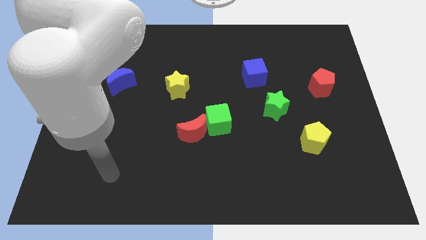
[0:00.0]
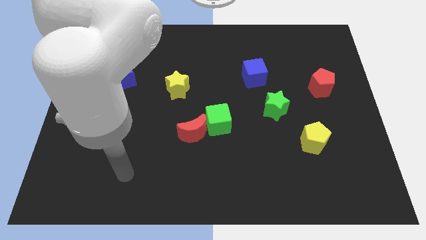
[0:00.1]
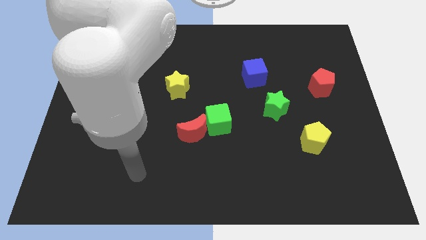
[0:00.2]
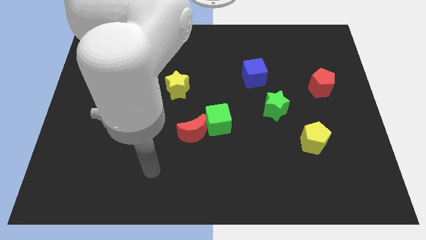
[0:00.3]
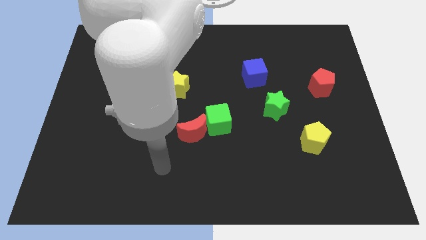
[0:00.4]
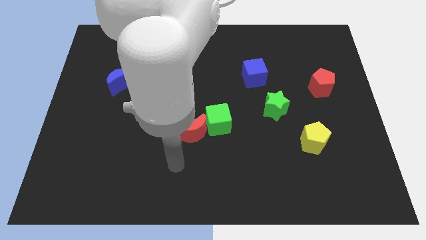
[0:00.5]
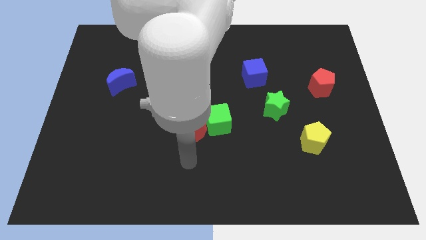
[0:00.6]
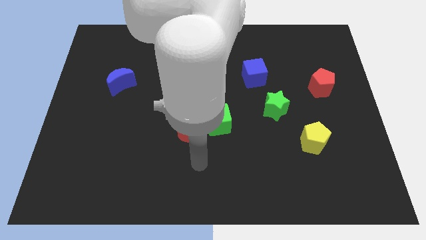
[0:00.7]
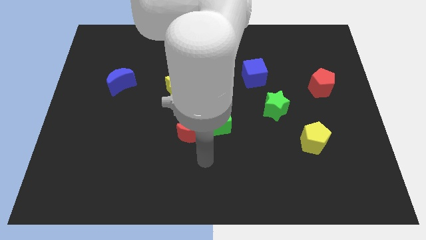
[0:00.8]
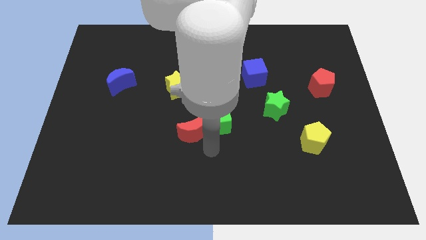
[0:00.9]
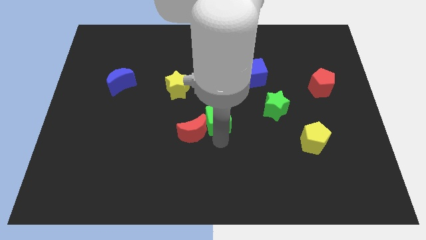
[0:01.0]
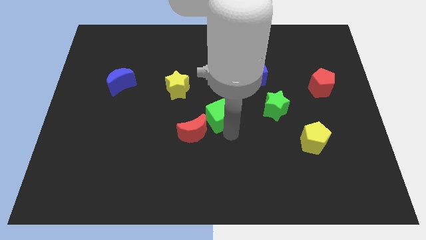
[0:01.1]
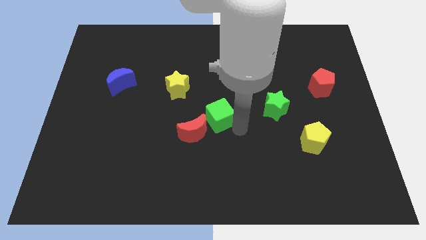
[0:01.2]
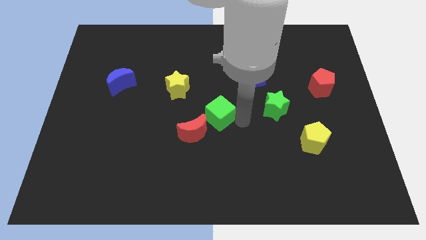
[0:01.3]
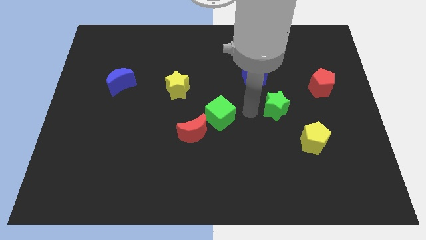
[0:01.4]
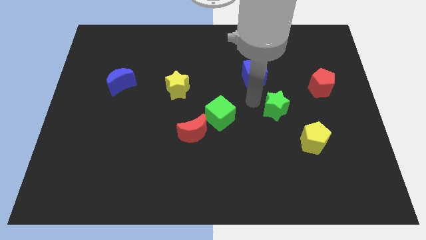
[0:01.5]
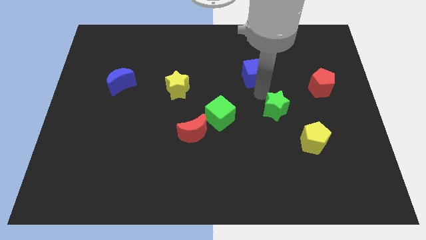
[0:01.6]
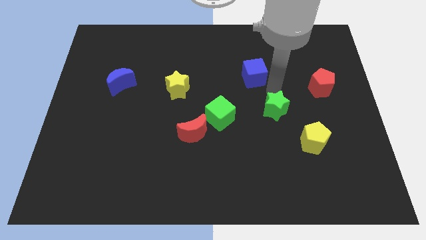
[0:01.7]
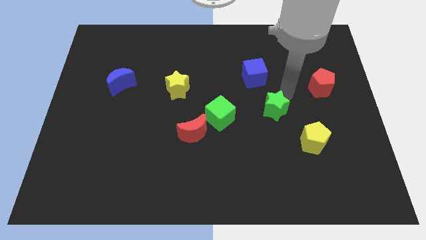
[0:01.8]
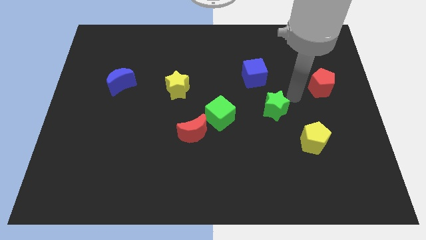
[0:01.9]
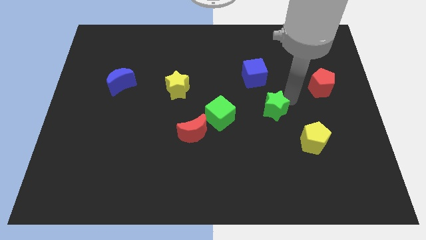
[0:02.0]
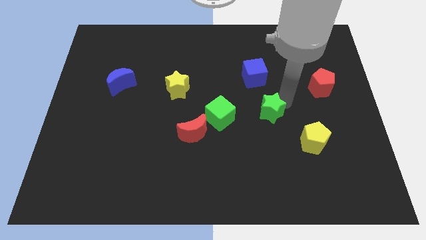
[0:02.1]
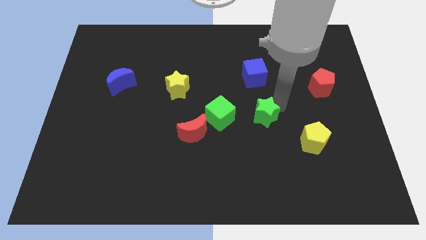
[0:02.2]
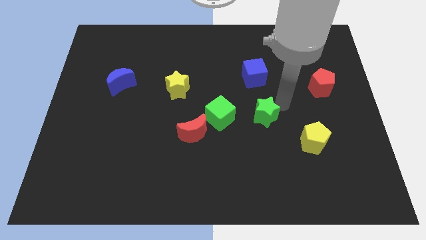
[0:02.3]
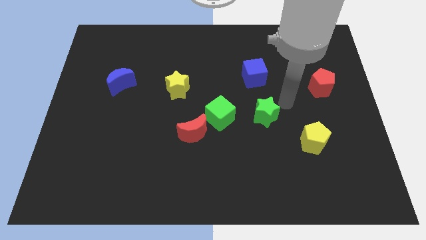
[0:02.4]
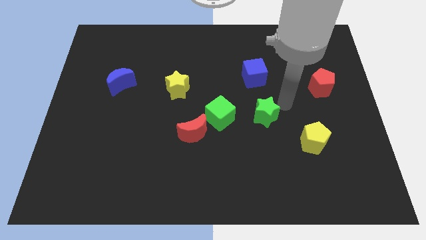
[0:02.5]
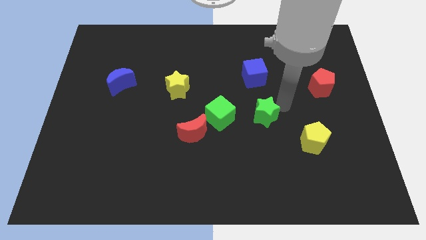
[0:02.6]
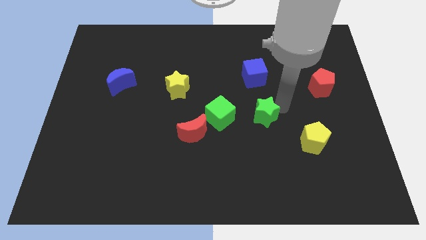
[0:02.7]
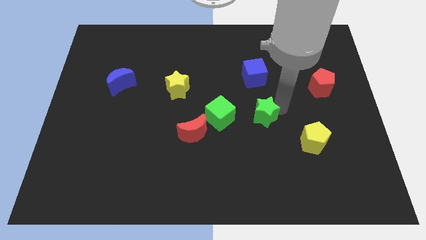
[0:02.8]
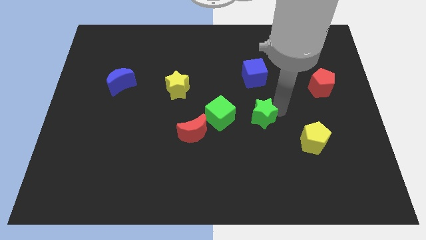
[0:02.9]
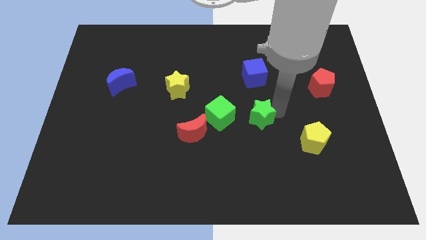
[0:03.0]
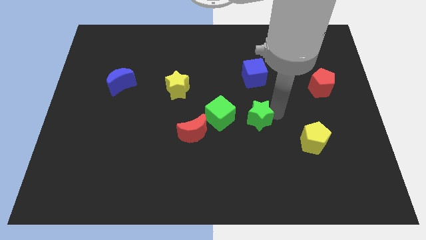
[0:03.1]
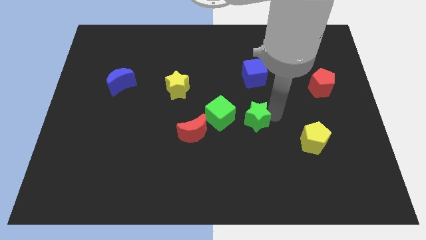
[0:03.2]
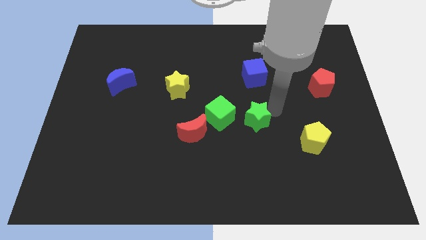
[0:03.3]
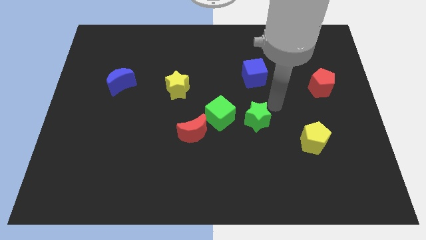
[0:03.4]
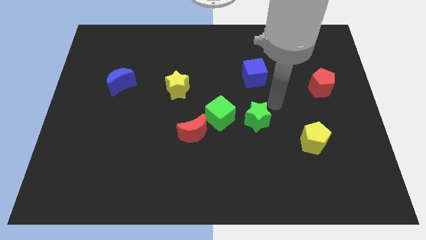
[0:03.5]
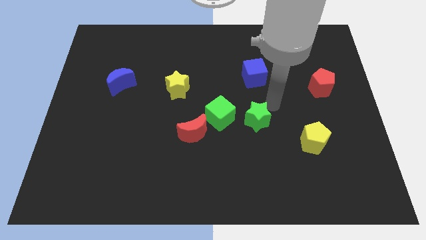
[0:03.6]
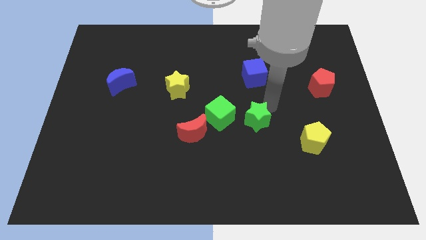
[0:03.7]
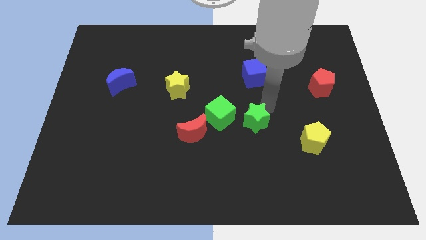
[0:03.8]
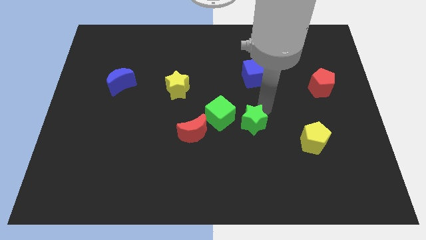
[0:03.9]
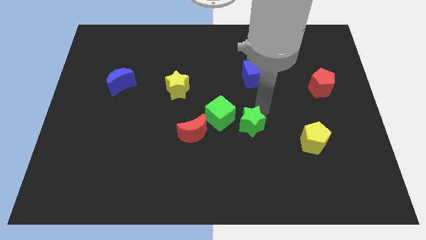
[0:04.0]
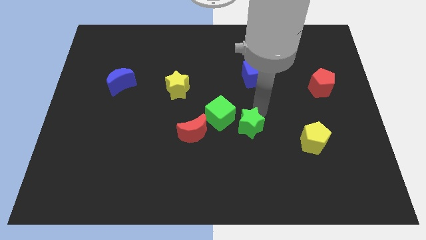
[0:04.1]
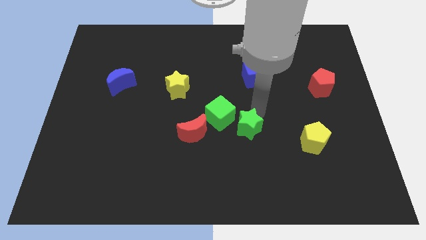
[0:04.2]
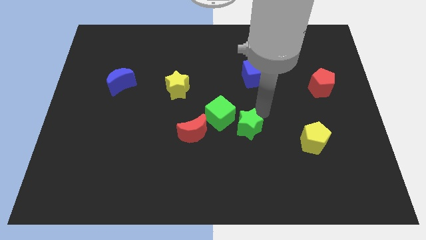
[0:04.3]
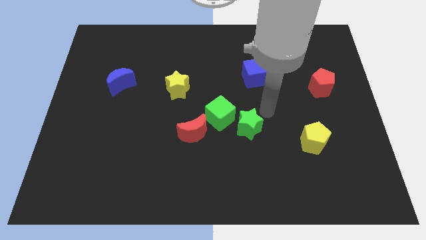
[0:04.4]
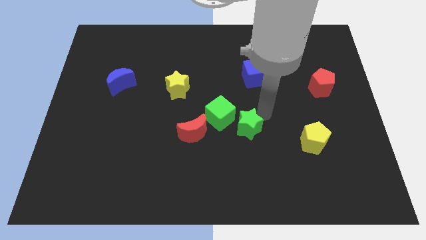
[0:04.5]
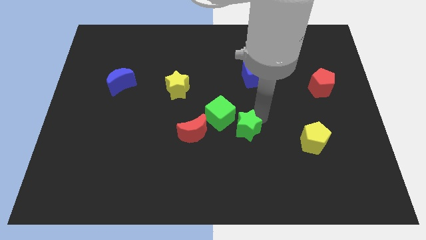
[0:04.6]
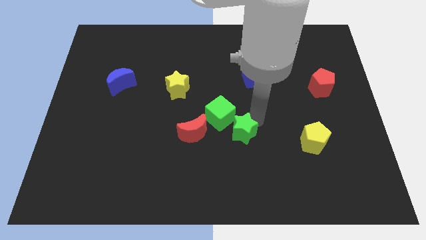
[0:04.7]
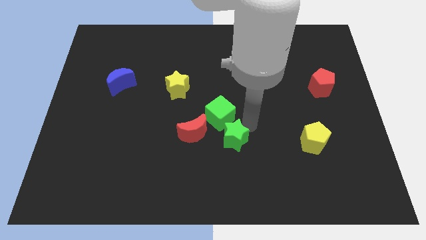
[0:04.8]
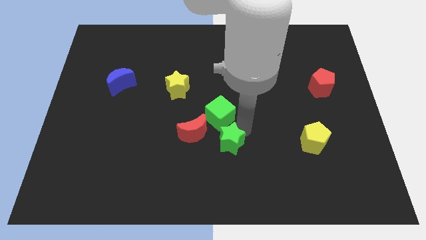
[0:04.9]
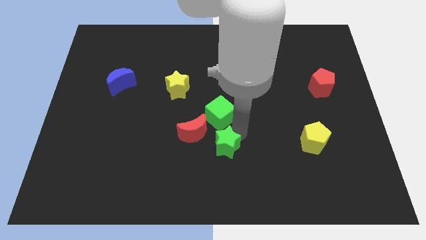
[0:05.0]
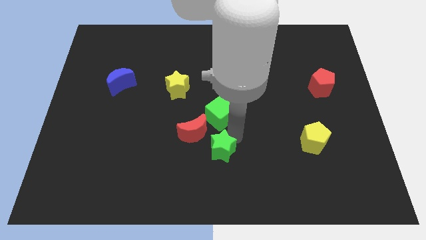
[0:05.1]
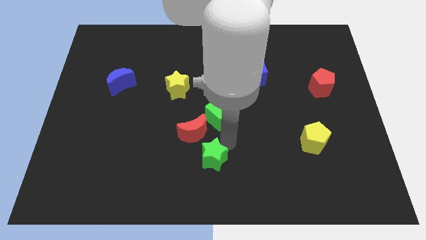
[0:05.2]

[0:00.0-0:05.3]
push the green star to the bottom of the red moon

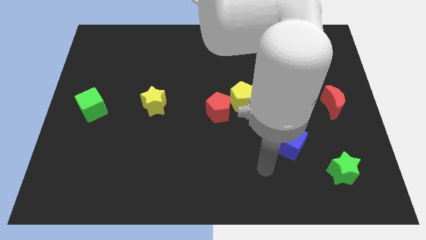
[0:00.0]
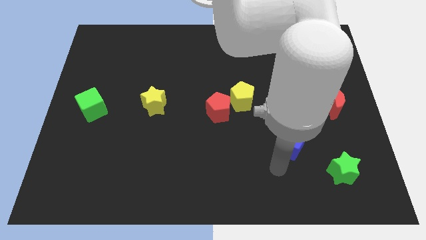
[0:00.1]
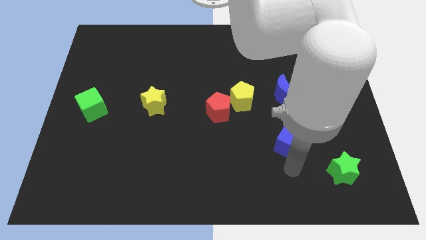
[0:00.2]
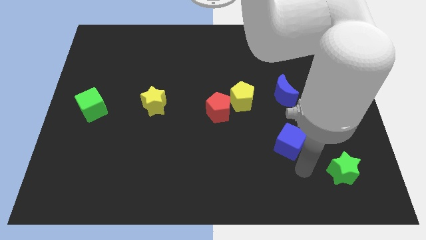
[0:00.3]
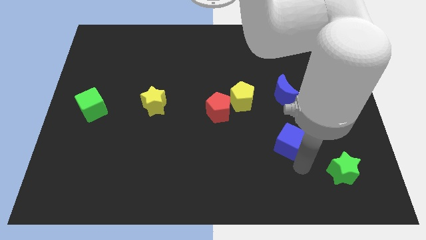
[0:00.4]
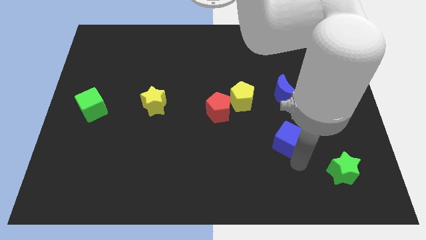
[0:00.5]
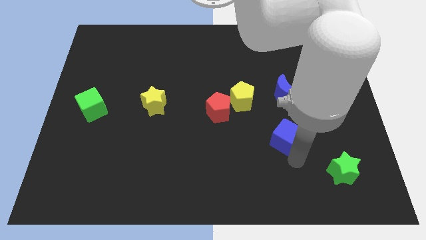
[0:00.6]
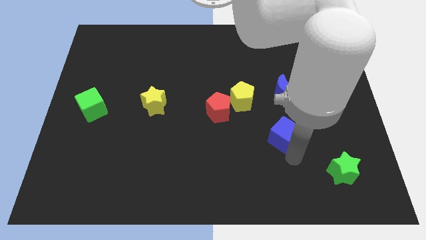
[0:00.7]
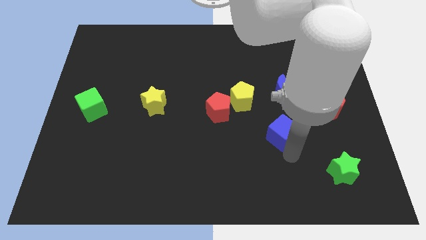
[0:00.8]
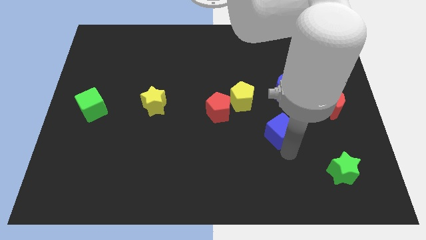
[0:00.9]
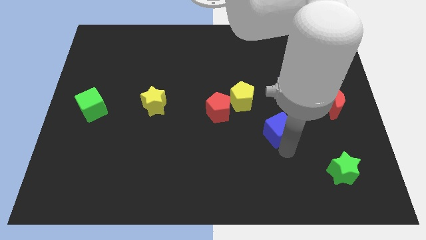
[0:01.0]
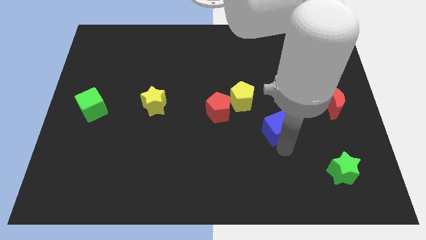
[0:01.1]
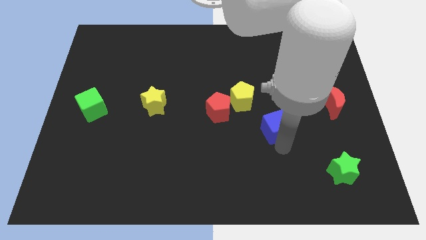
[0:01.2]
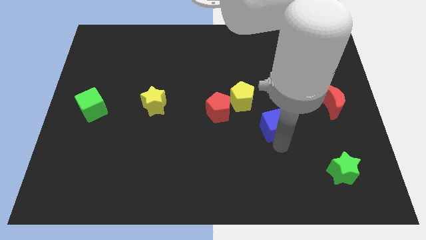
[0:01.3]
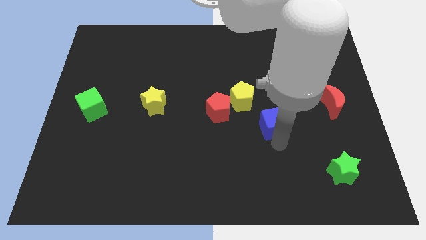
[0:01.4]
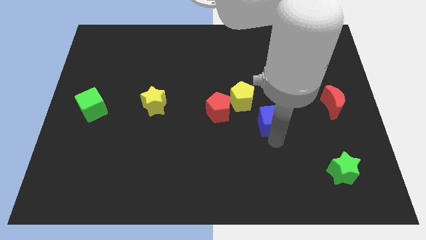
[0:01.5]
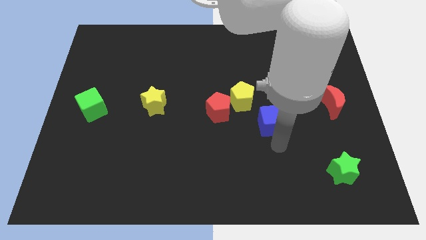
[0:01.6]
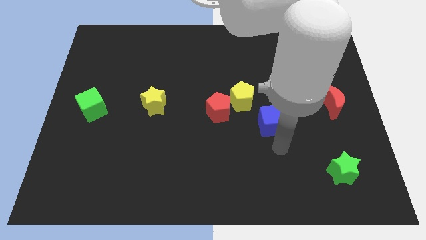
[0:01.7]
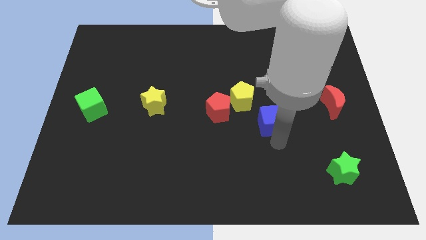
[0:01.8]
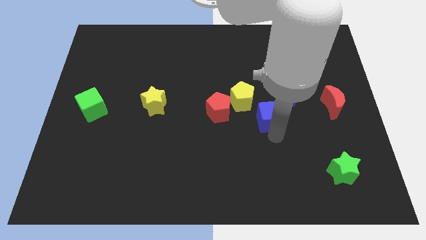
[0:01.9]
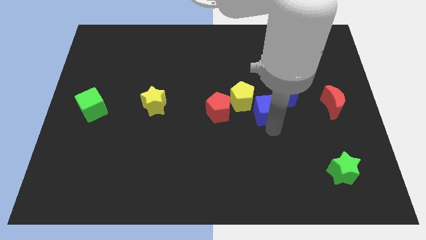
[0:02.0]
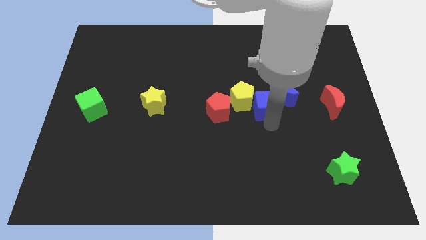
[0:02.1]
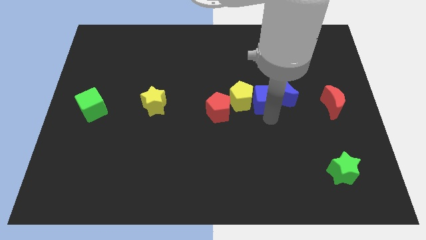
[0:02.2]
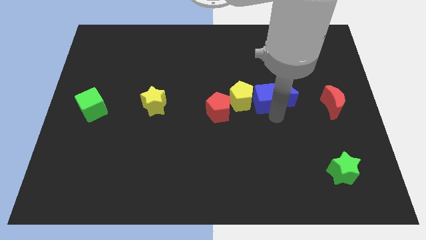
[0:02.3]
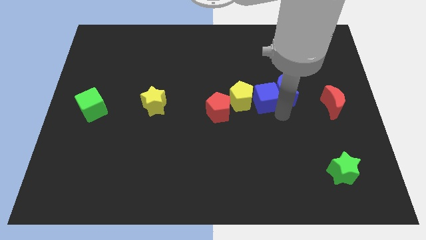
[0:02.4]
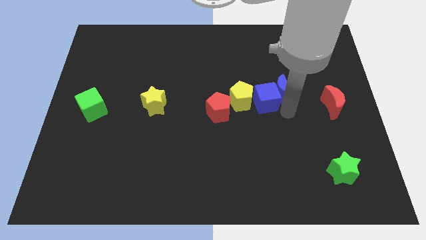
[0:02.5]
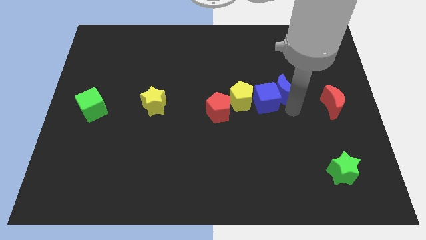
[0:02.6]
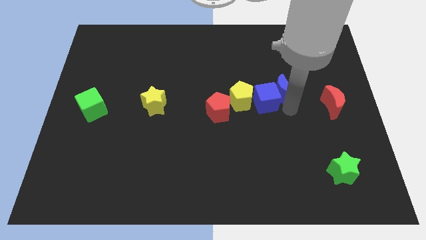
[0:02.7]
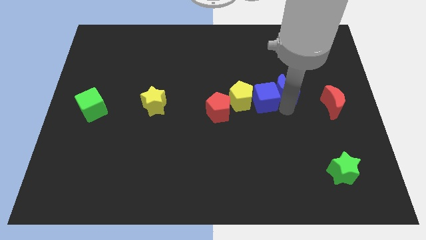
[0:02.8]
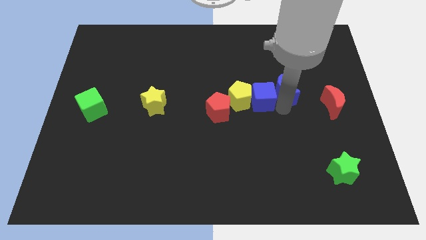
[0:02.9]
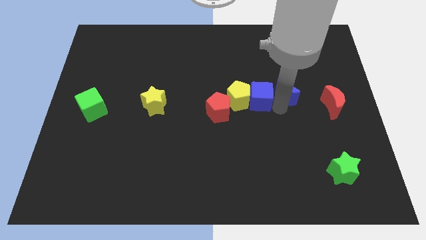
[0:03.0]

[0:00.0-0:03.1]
move the blue cube diagonally up and to the right of the red pentagon
